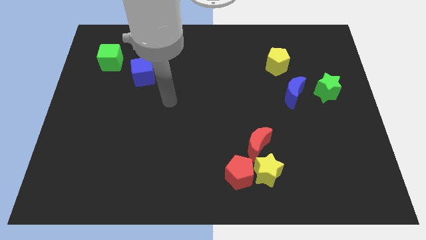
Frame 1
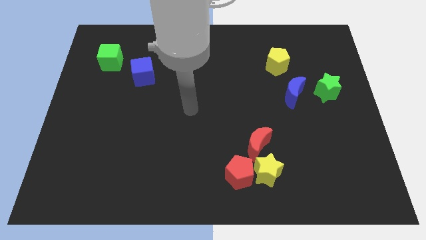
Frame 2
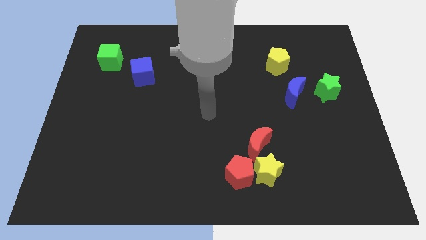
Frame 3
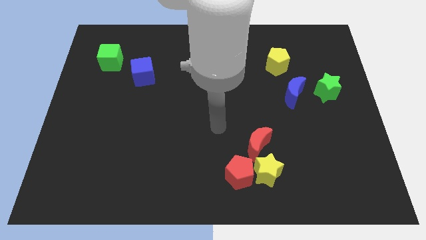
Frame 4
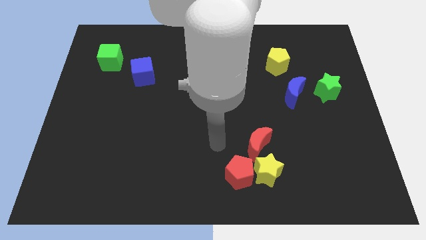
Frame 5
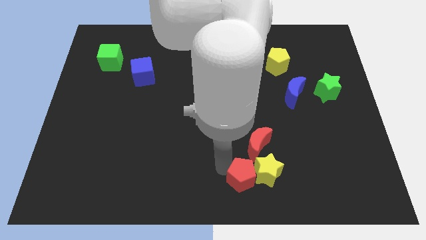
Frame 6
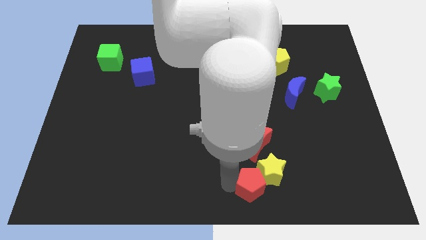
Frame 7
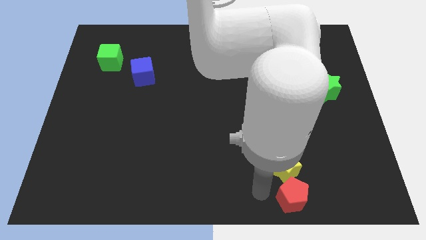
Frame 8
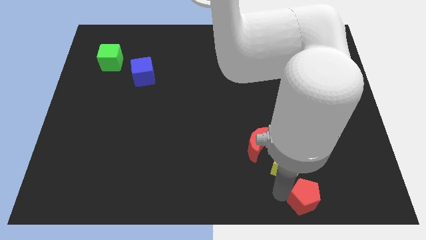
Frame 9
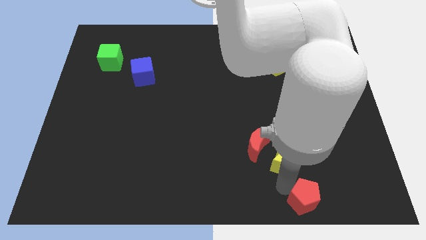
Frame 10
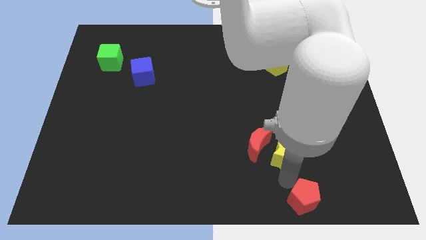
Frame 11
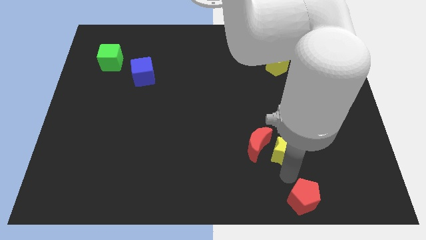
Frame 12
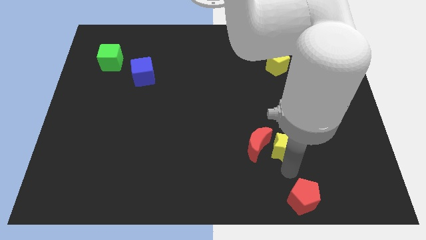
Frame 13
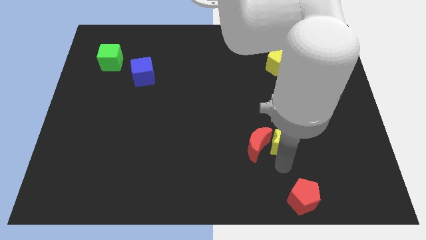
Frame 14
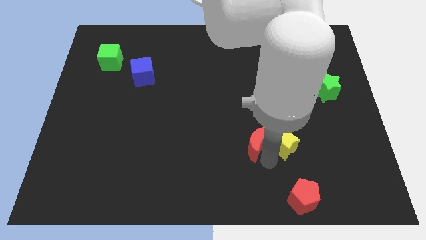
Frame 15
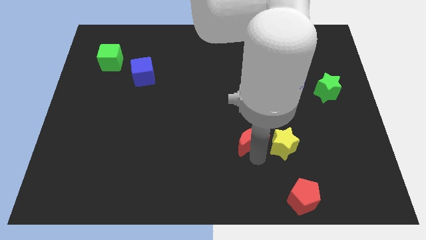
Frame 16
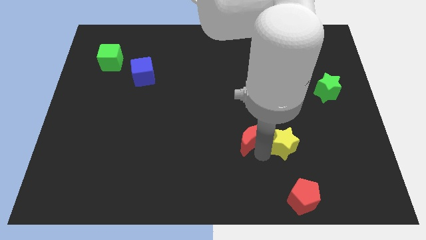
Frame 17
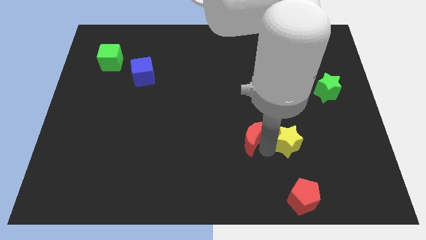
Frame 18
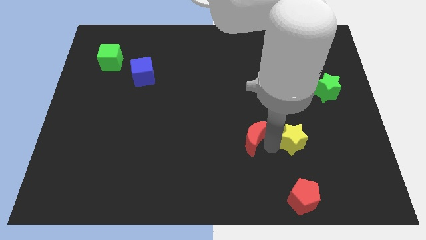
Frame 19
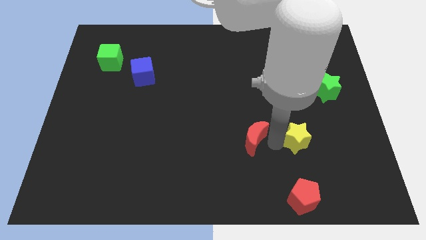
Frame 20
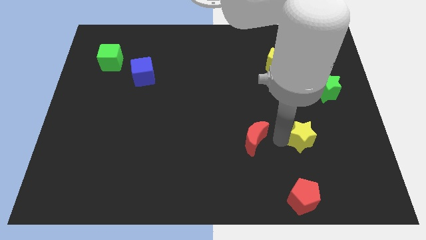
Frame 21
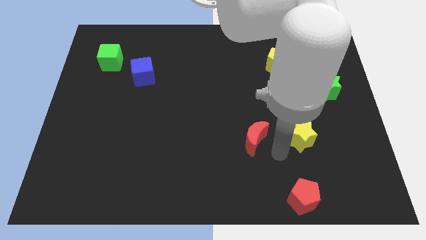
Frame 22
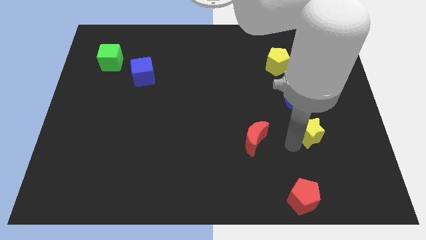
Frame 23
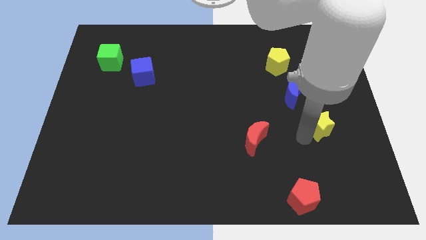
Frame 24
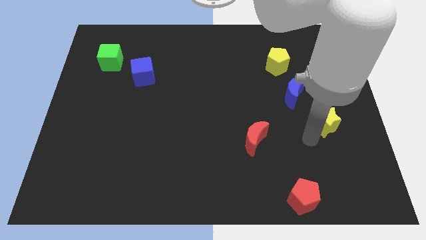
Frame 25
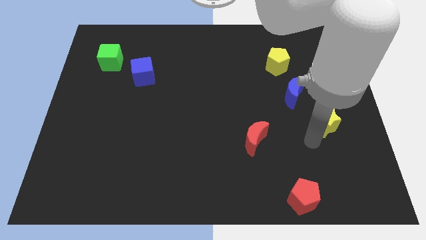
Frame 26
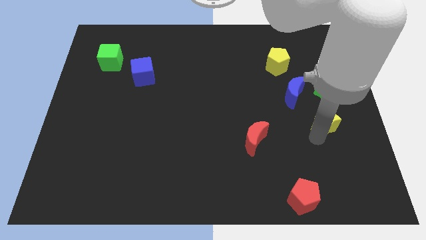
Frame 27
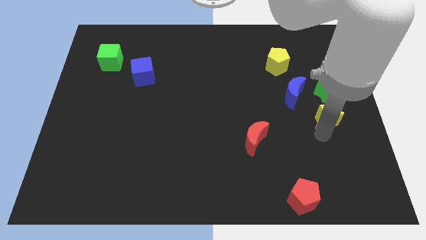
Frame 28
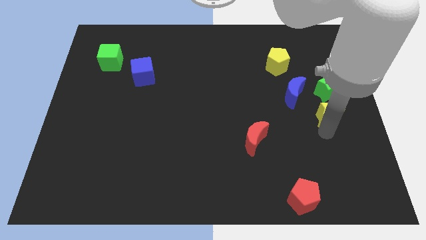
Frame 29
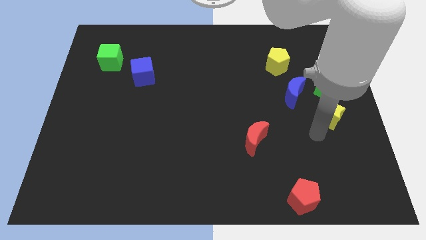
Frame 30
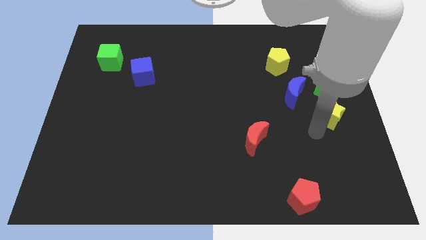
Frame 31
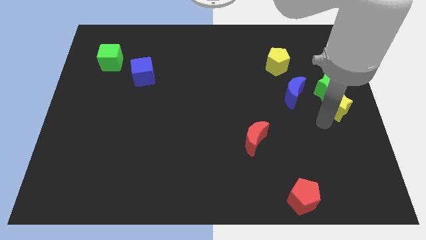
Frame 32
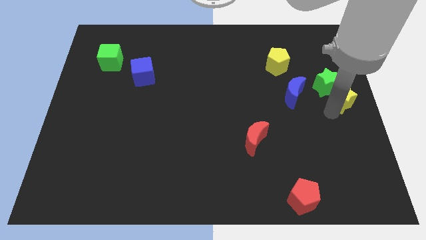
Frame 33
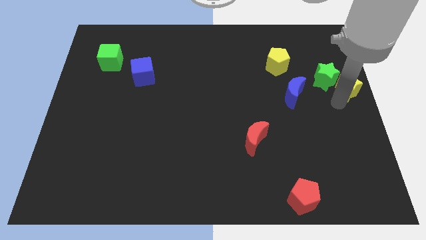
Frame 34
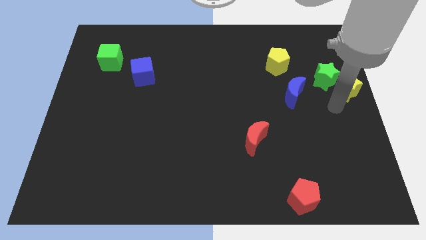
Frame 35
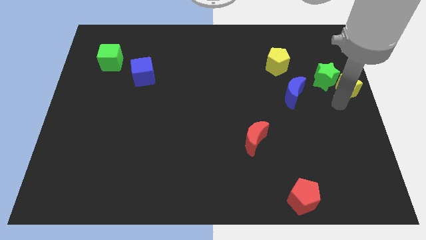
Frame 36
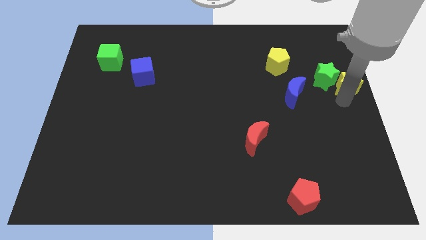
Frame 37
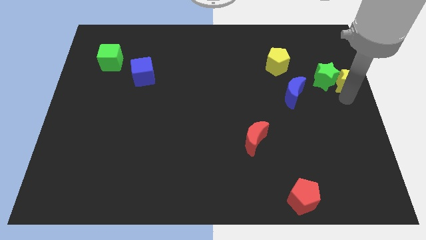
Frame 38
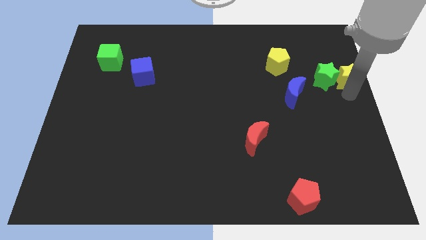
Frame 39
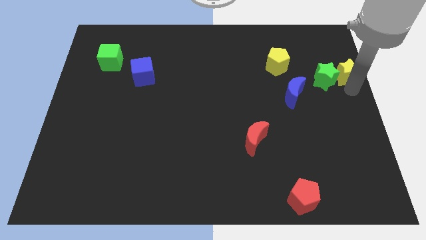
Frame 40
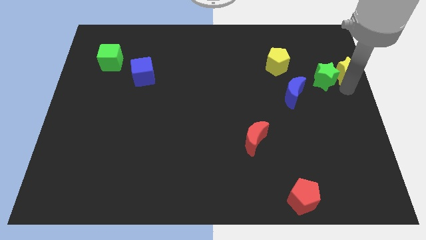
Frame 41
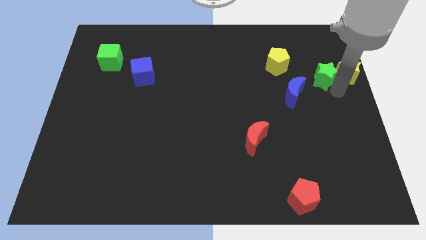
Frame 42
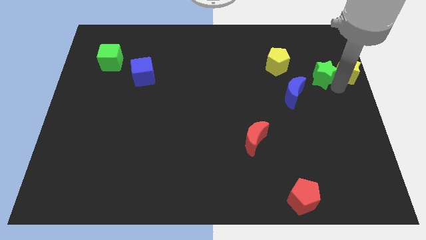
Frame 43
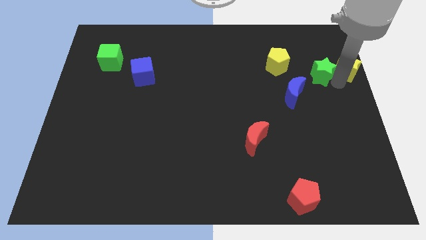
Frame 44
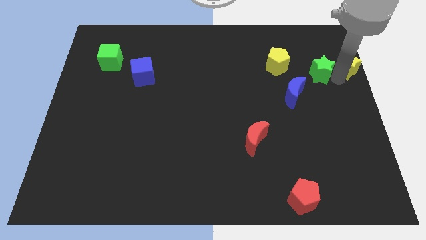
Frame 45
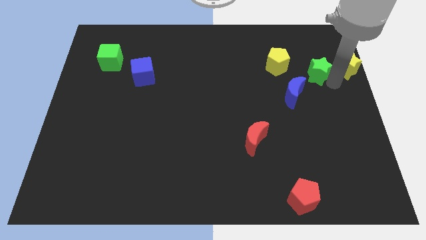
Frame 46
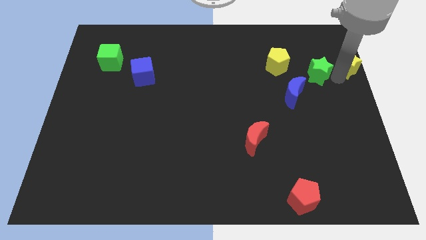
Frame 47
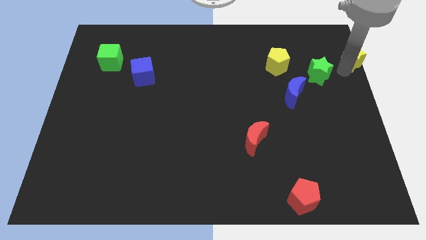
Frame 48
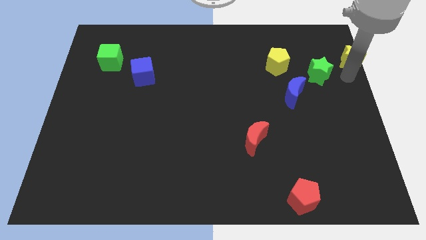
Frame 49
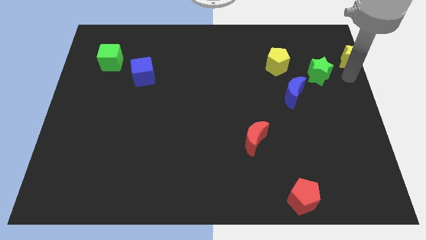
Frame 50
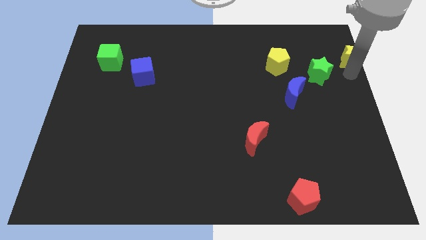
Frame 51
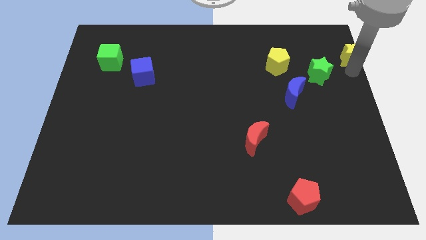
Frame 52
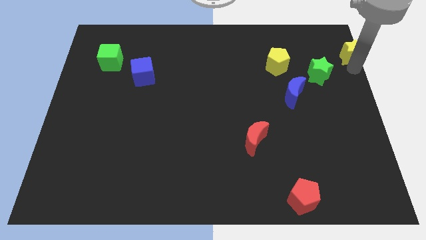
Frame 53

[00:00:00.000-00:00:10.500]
move the yellow star to the upper right corner

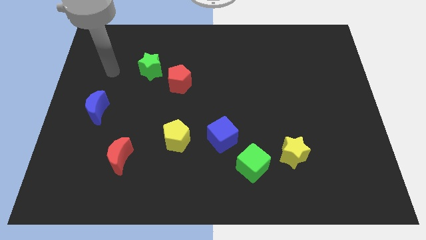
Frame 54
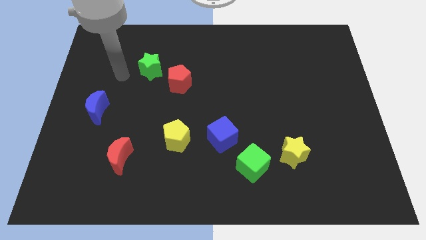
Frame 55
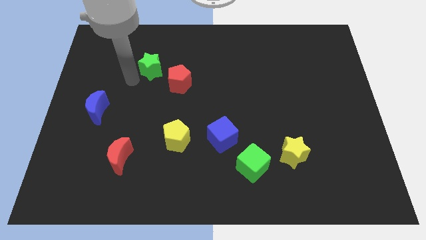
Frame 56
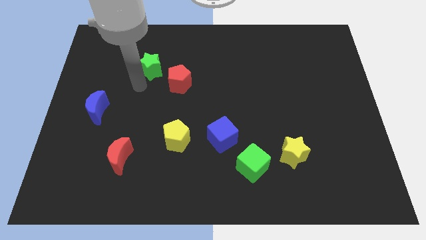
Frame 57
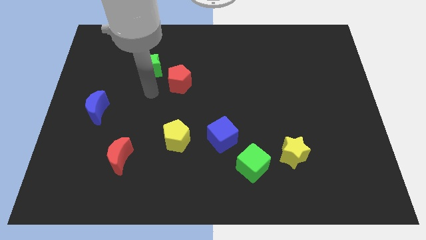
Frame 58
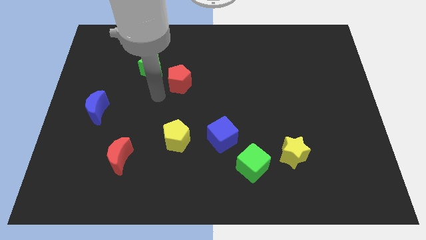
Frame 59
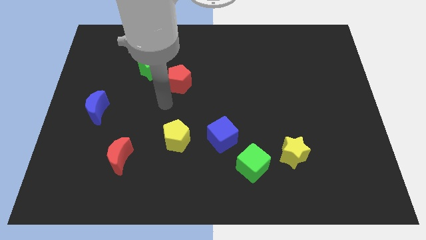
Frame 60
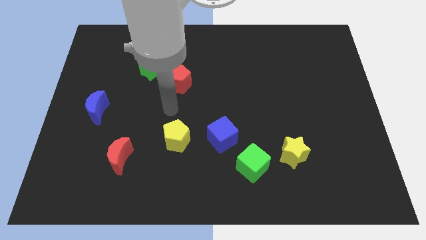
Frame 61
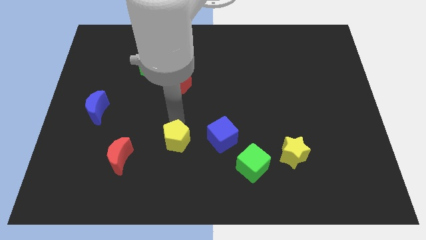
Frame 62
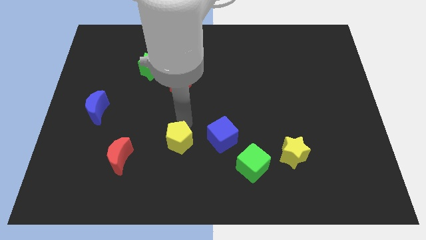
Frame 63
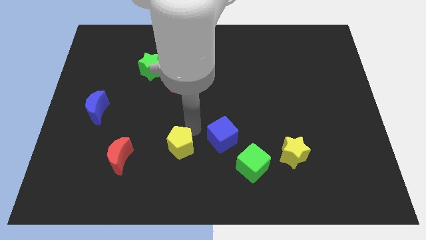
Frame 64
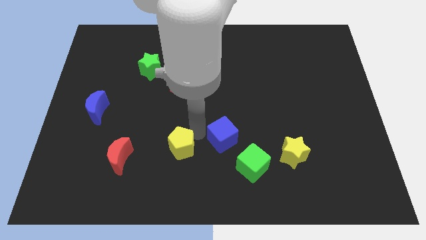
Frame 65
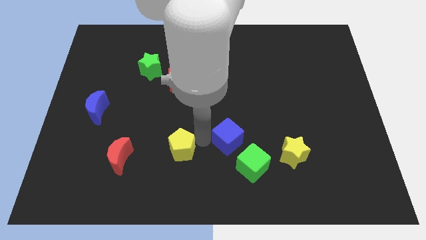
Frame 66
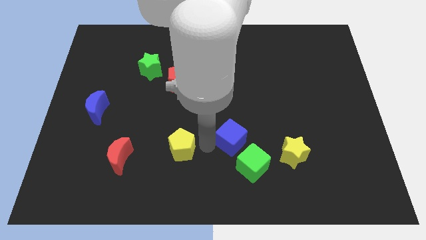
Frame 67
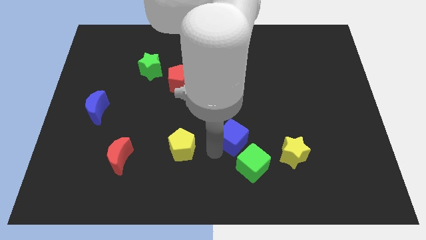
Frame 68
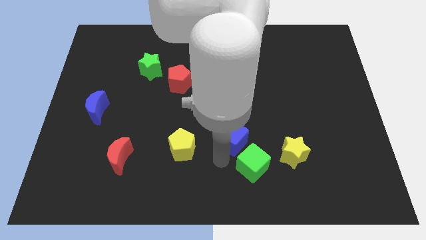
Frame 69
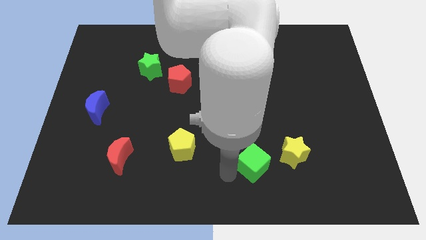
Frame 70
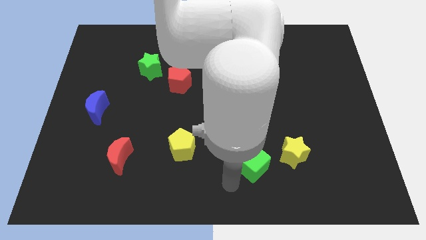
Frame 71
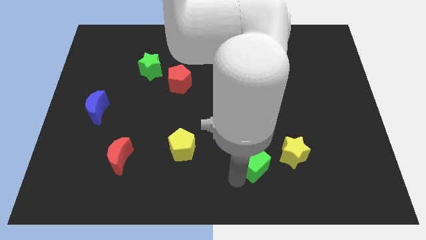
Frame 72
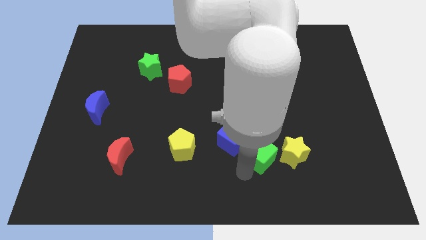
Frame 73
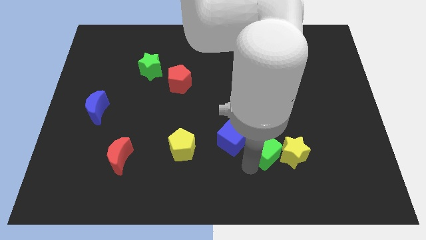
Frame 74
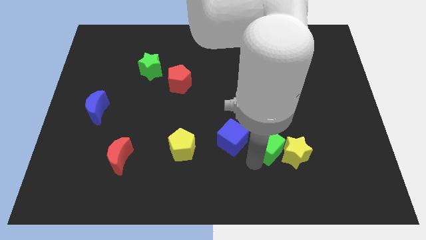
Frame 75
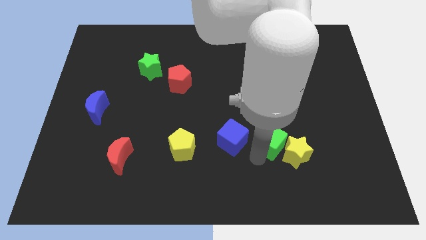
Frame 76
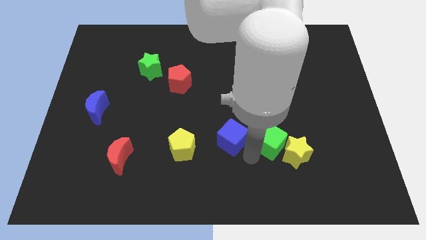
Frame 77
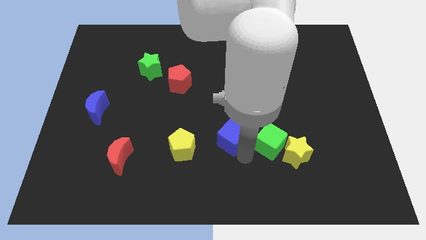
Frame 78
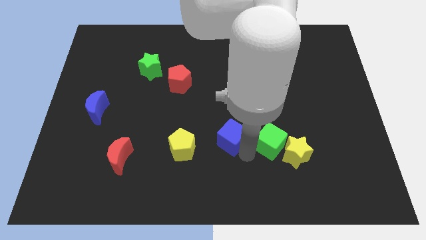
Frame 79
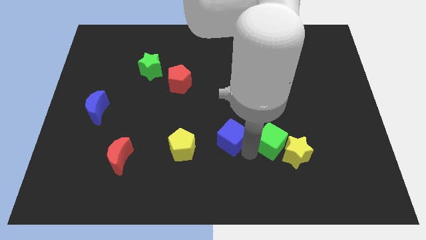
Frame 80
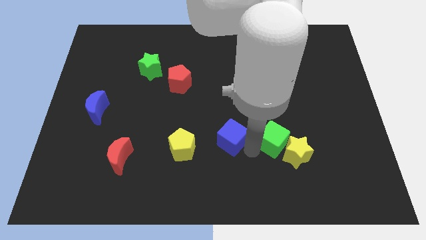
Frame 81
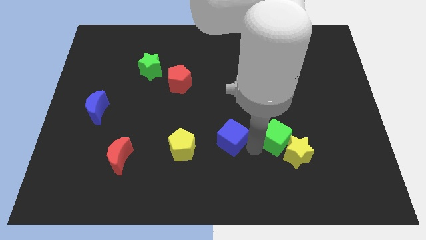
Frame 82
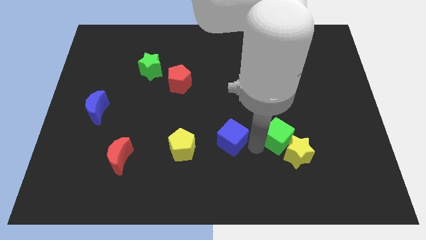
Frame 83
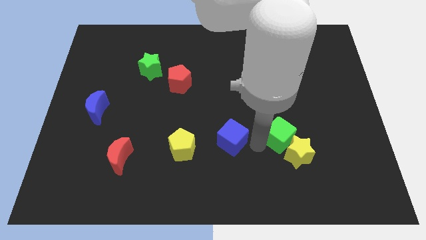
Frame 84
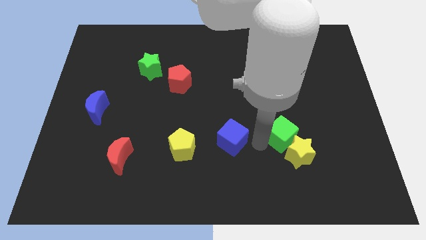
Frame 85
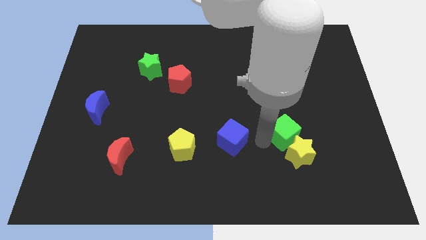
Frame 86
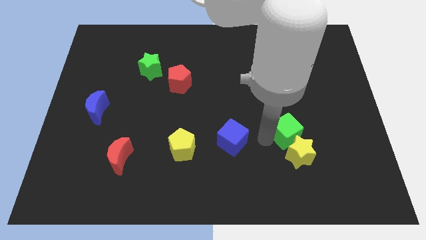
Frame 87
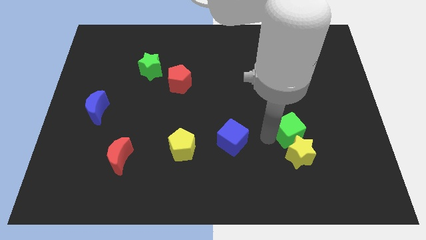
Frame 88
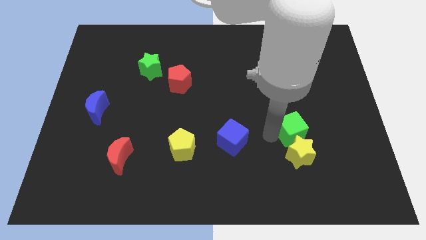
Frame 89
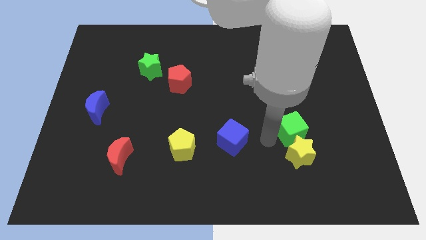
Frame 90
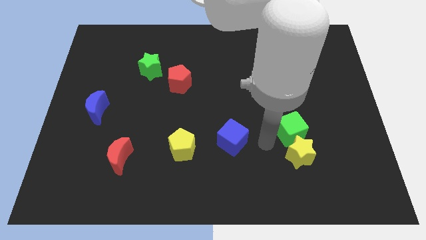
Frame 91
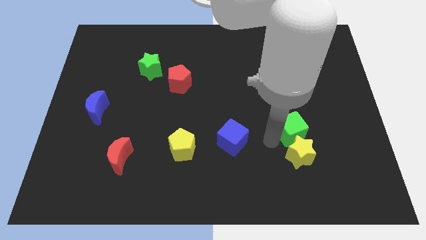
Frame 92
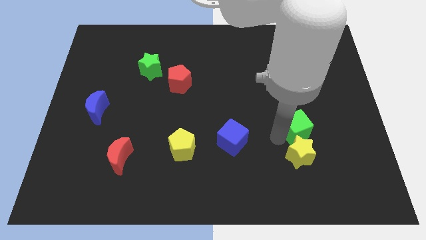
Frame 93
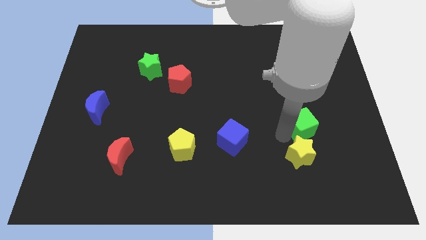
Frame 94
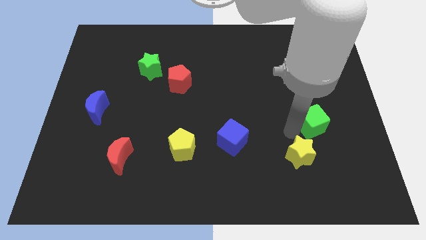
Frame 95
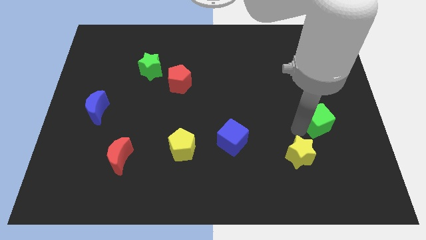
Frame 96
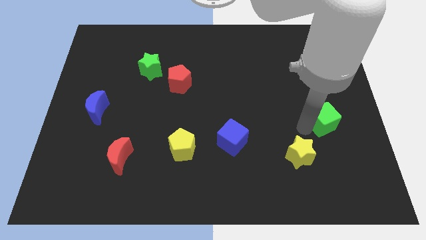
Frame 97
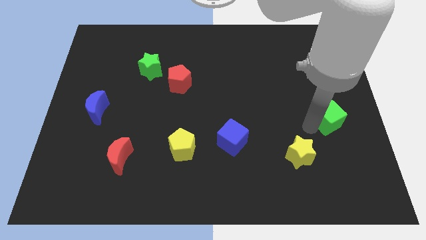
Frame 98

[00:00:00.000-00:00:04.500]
push the green cube to the right side
